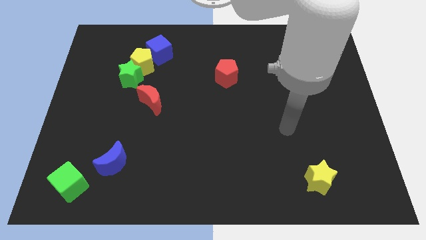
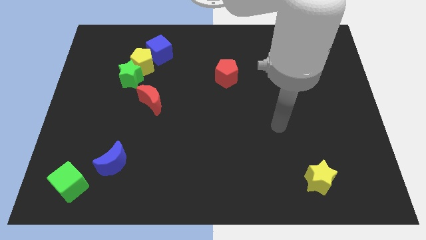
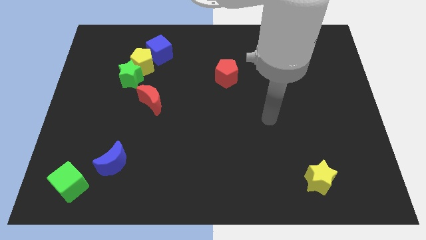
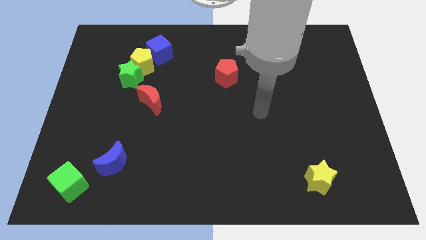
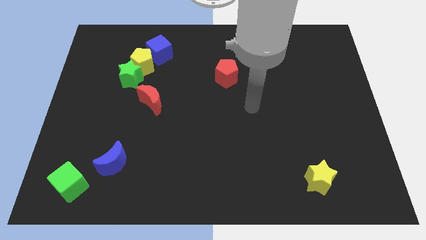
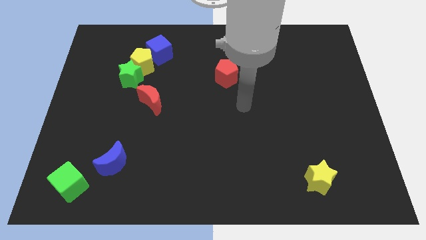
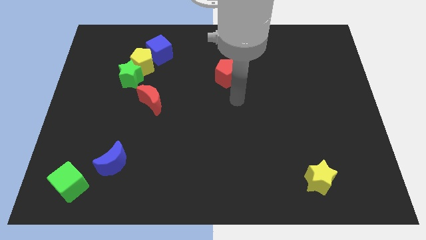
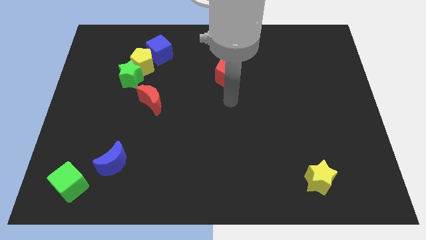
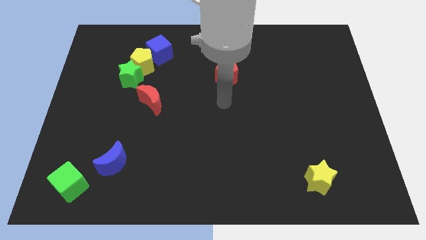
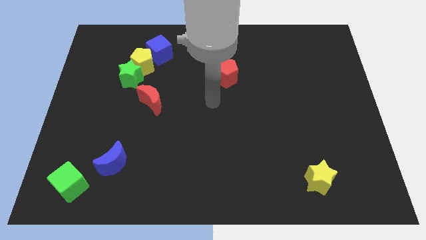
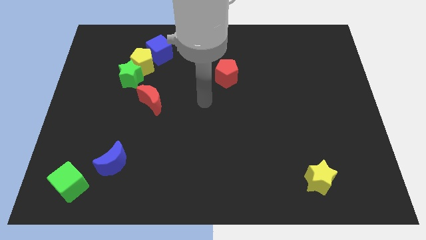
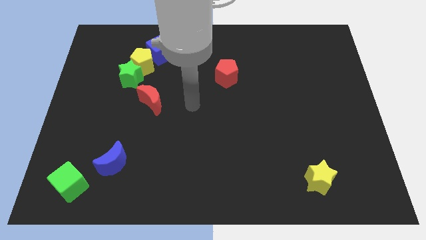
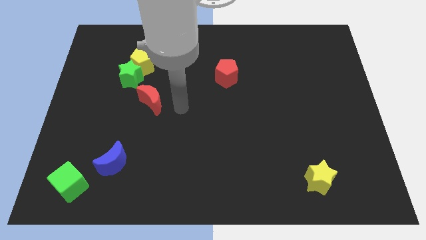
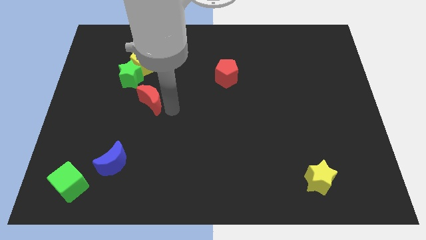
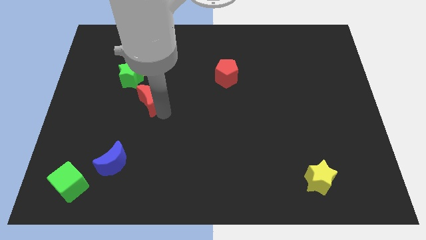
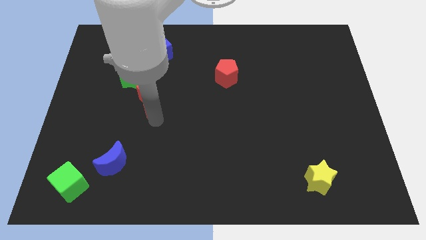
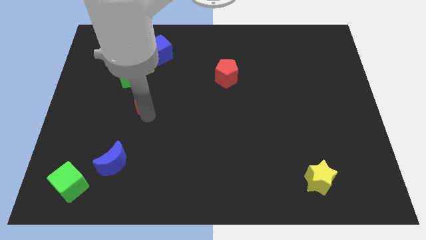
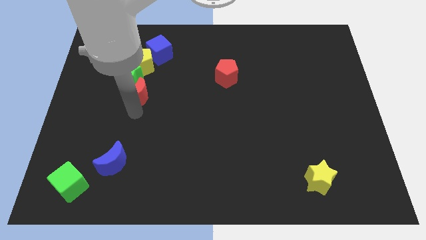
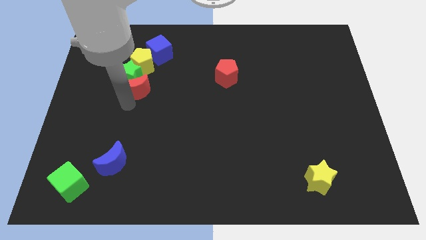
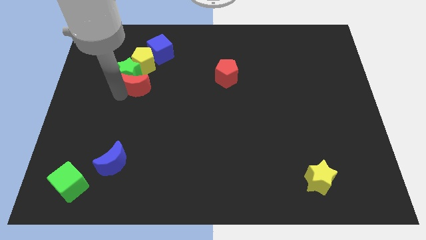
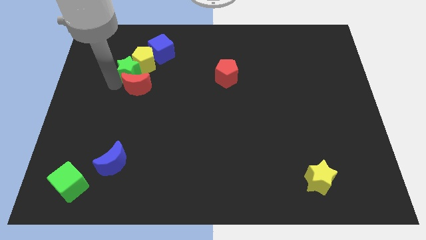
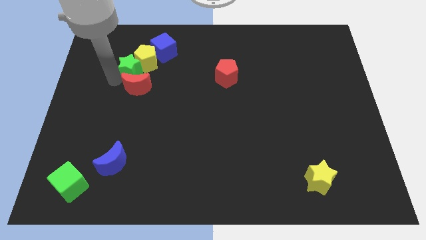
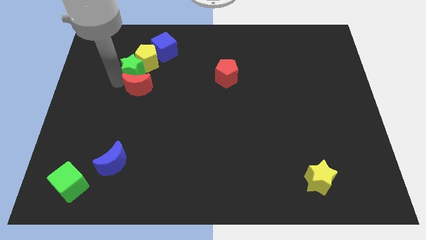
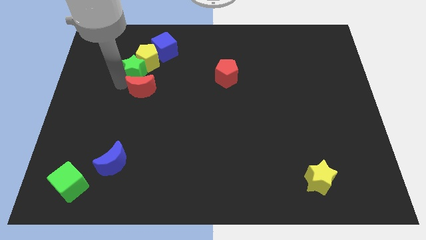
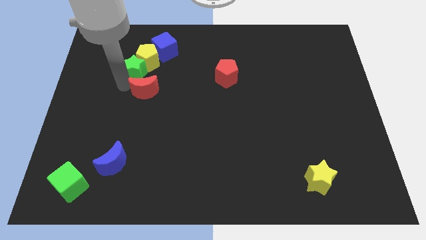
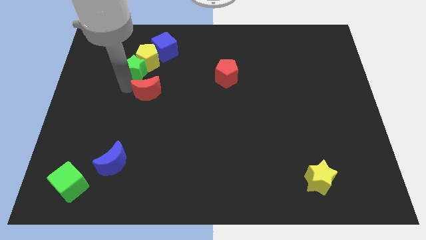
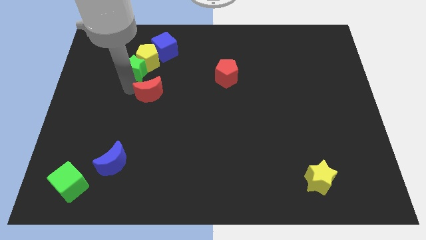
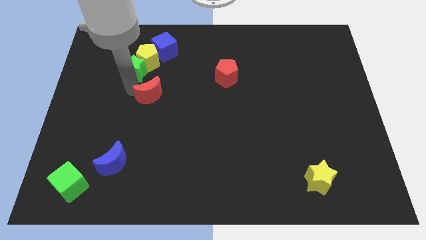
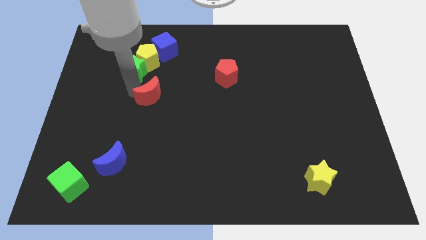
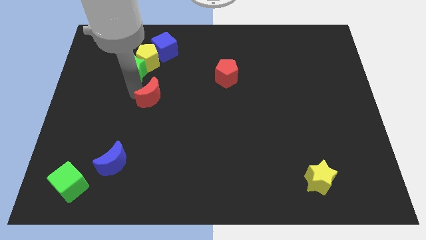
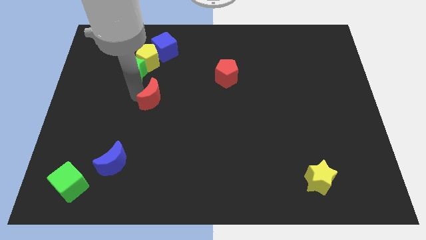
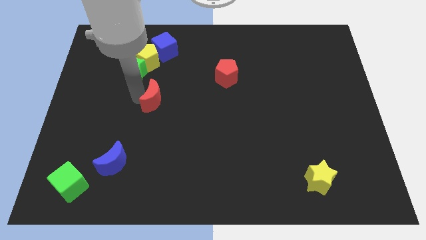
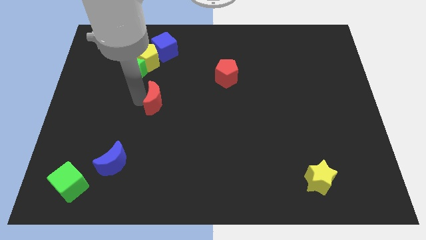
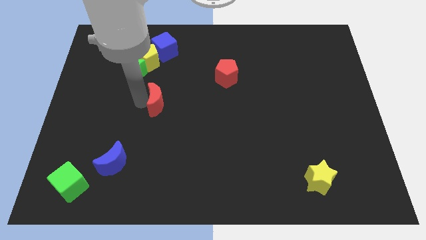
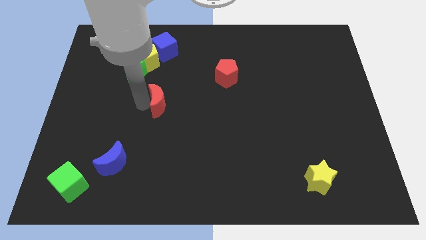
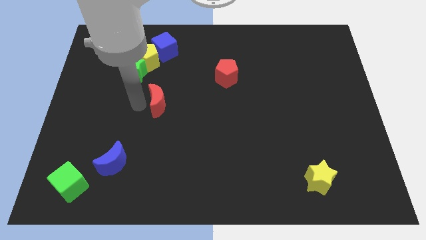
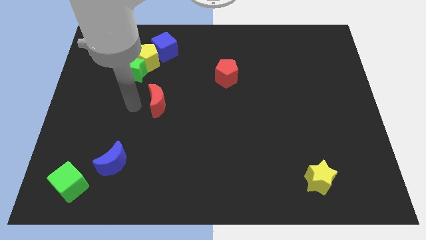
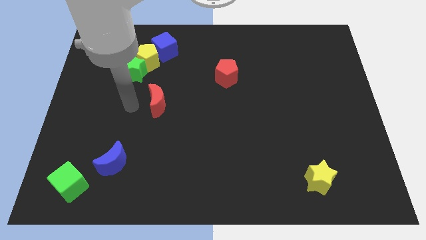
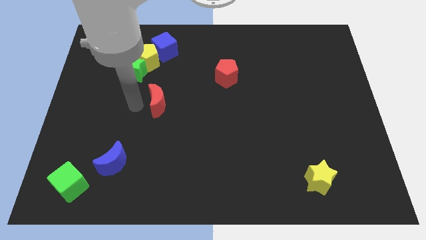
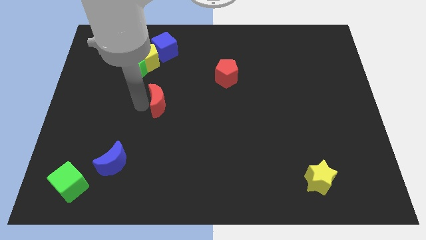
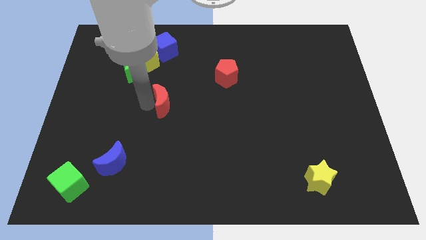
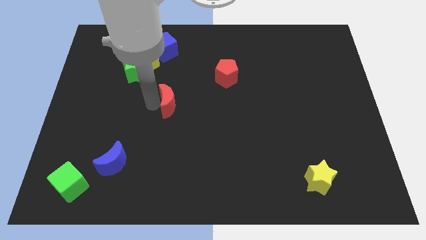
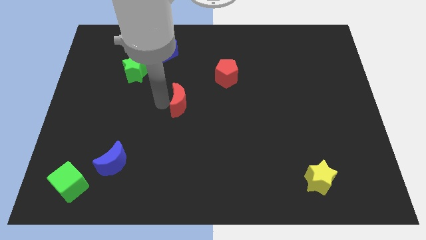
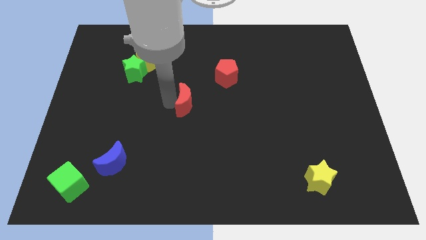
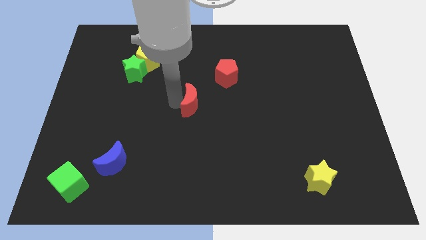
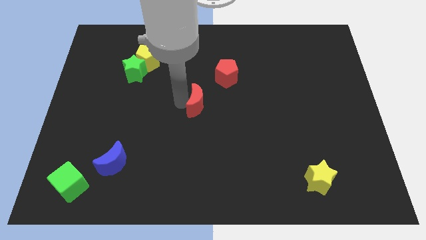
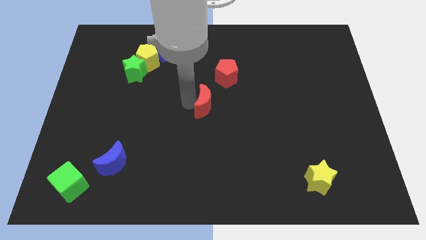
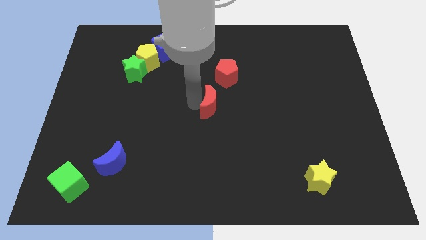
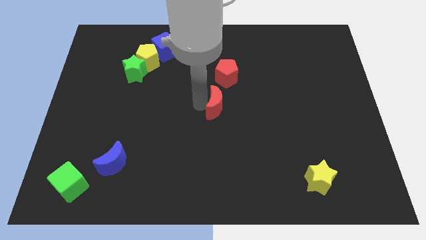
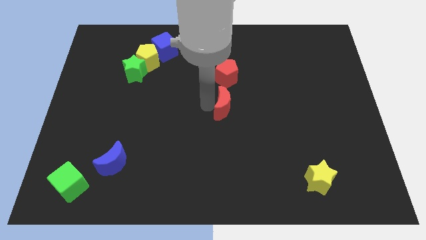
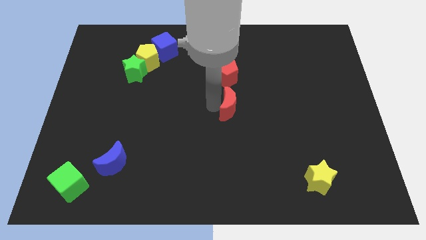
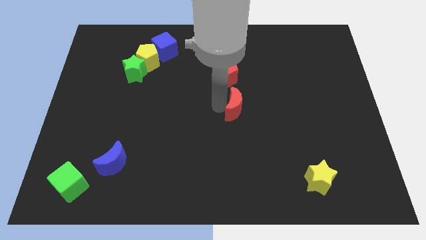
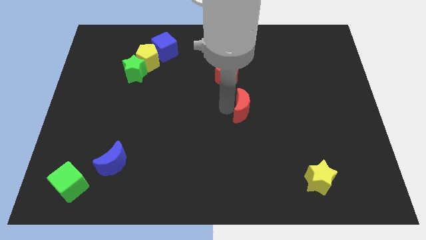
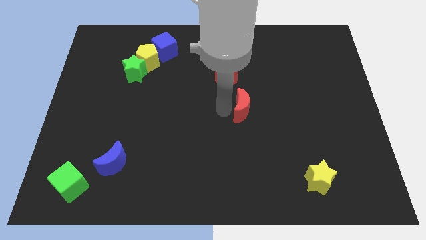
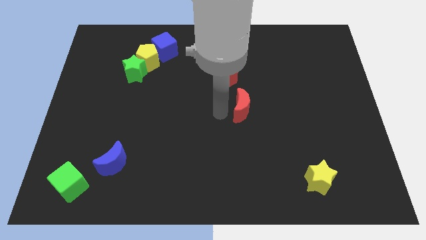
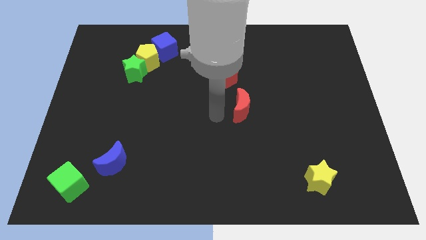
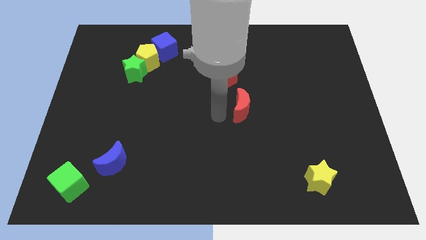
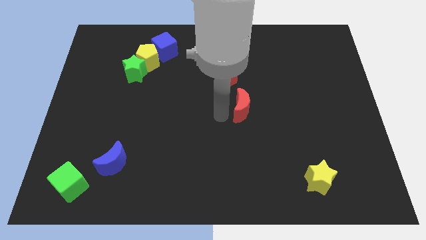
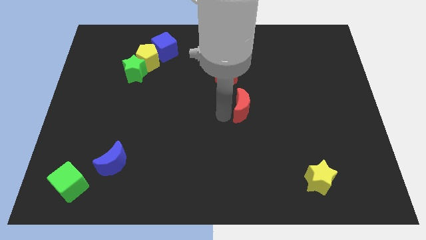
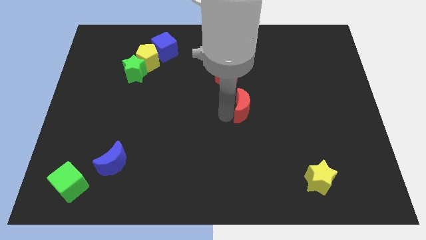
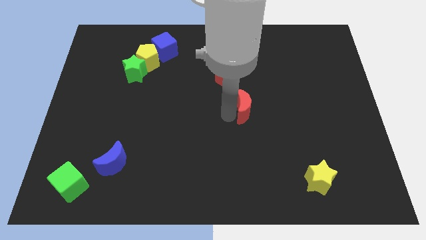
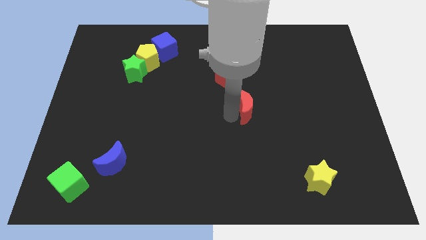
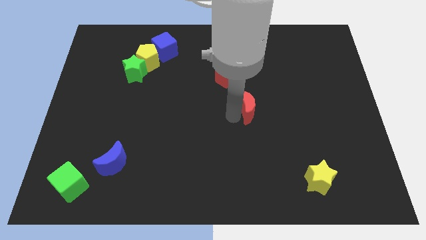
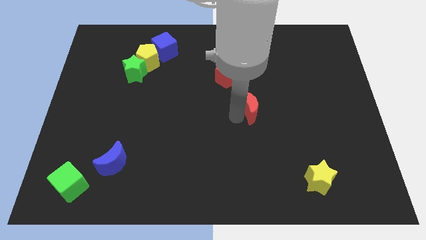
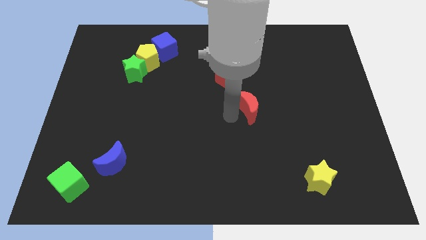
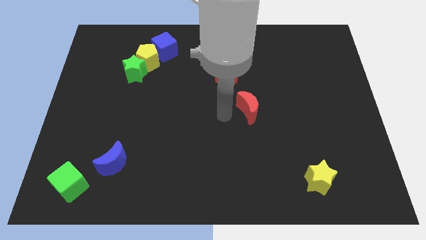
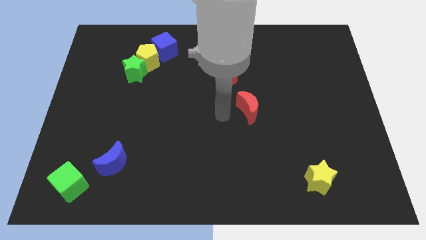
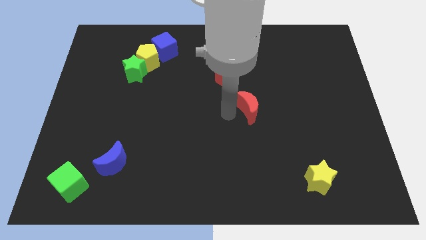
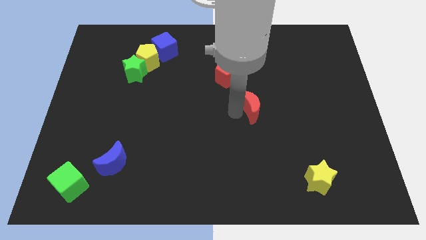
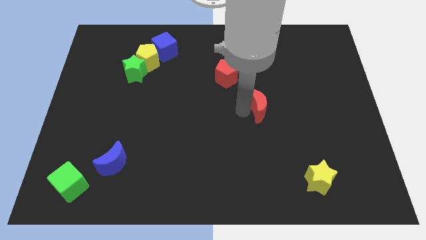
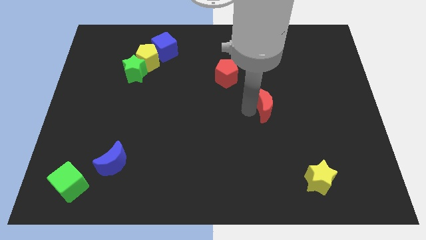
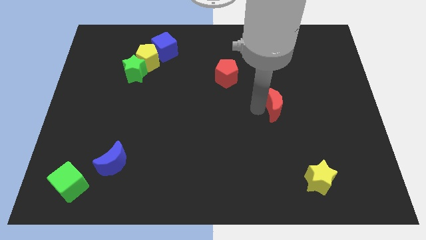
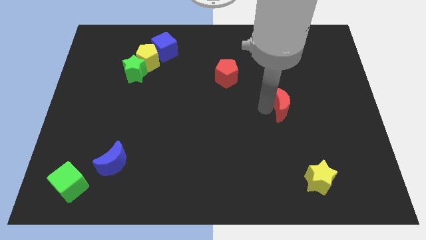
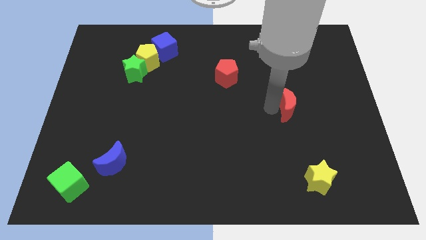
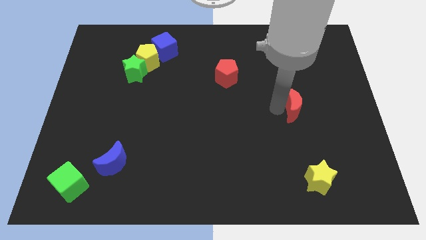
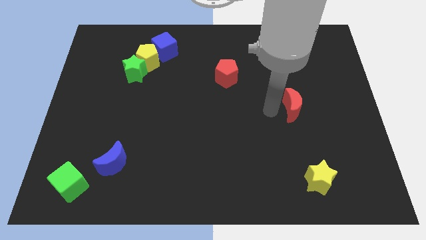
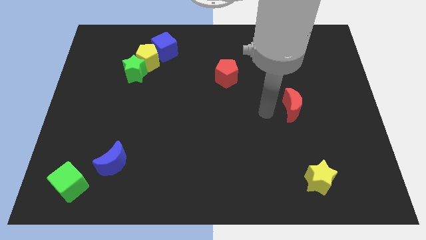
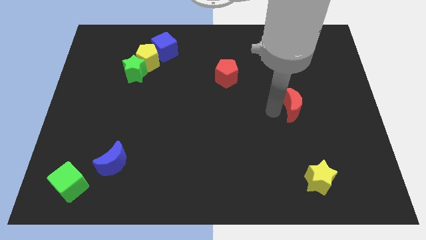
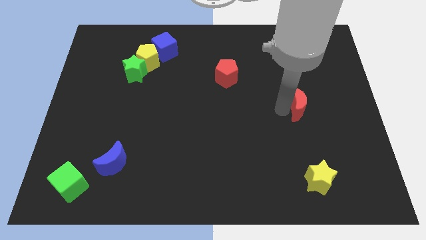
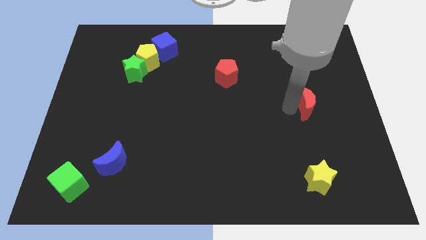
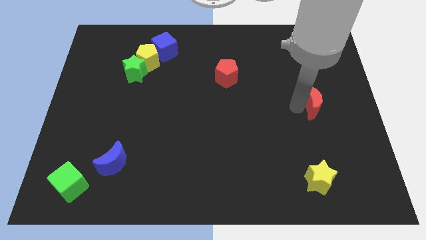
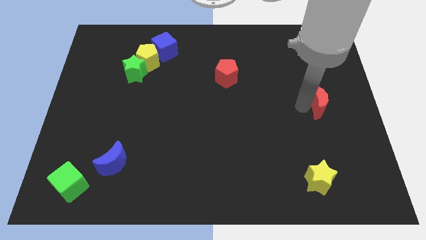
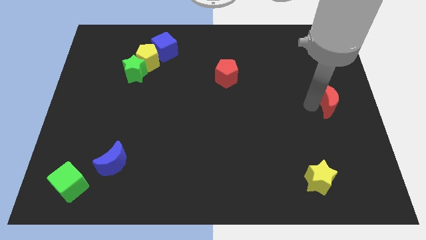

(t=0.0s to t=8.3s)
move the red moon to the right side
